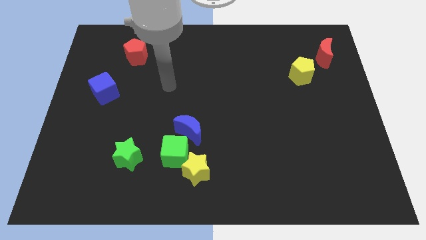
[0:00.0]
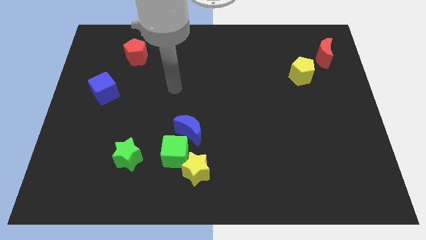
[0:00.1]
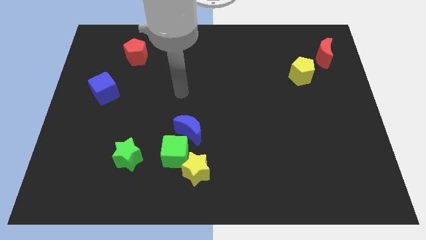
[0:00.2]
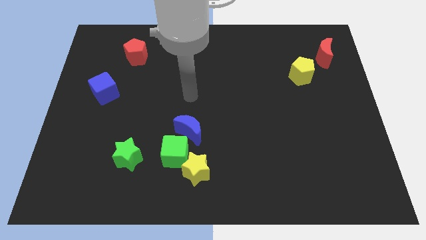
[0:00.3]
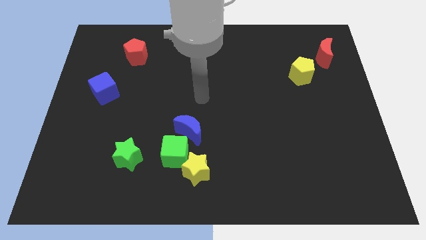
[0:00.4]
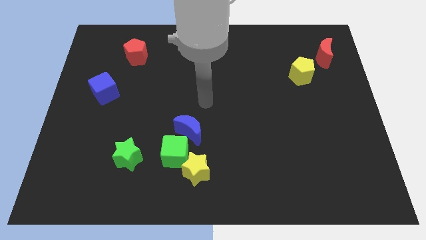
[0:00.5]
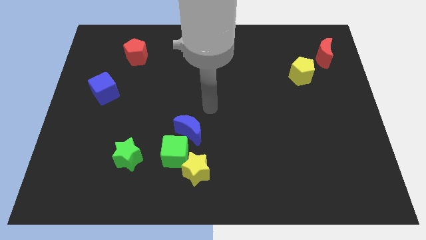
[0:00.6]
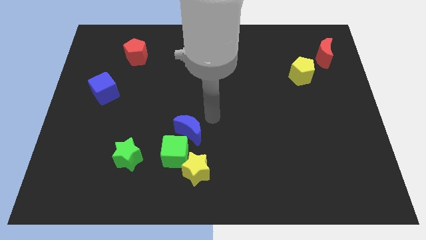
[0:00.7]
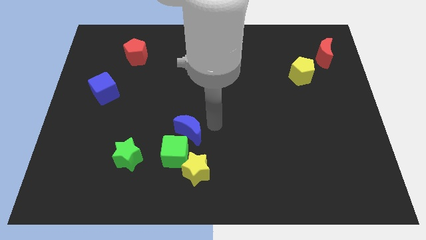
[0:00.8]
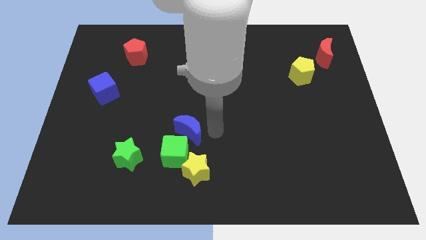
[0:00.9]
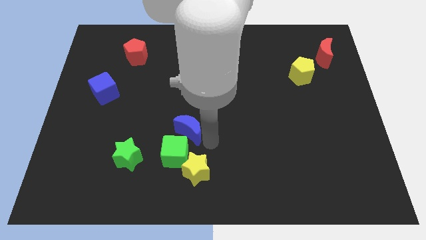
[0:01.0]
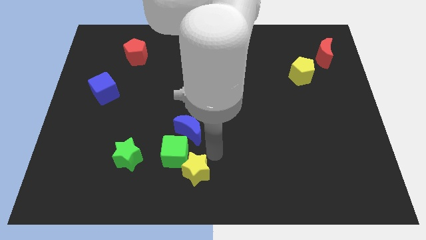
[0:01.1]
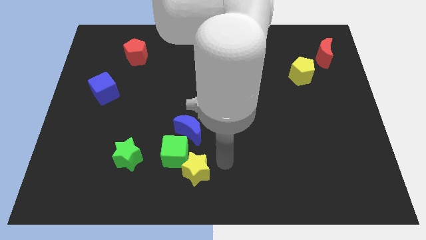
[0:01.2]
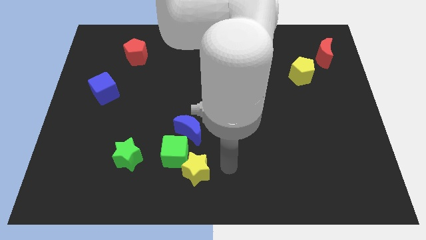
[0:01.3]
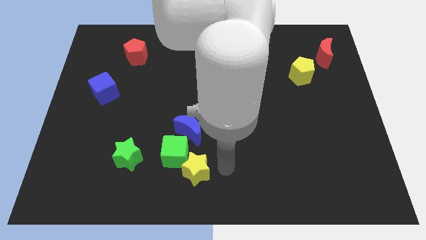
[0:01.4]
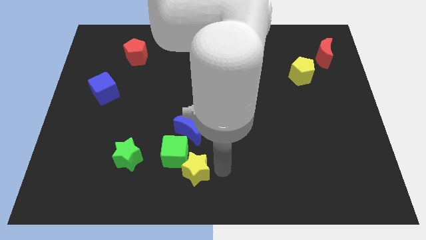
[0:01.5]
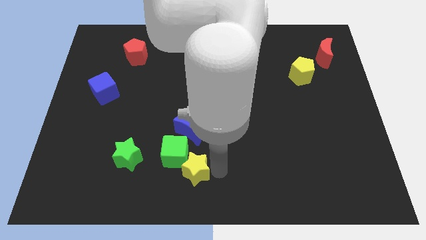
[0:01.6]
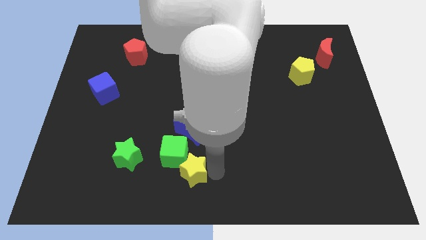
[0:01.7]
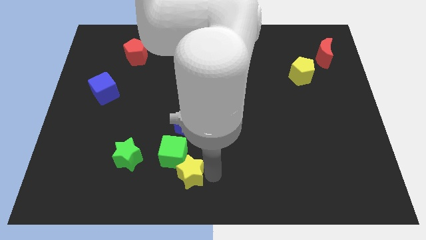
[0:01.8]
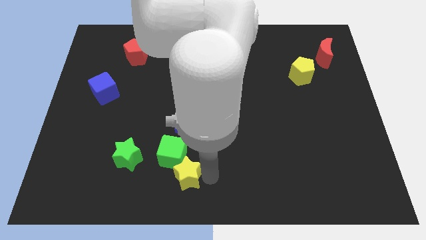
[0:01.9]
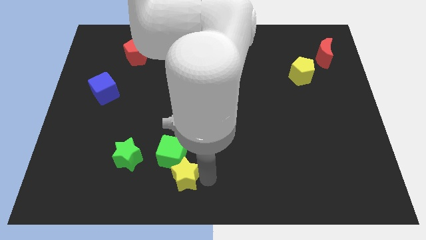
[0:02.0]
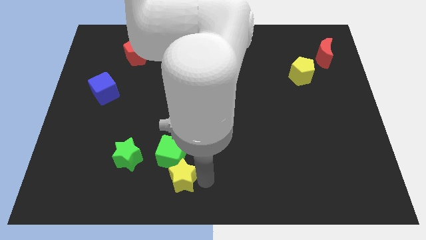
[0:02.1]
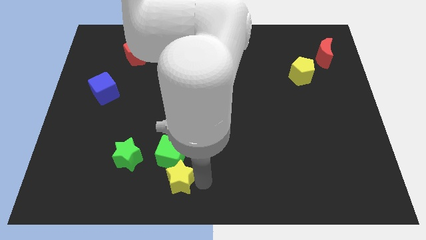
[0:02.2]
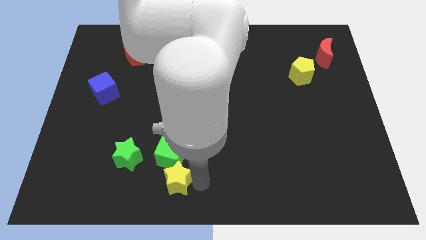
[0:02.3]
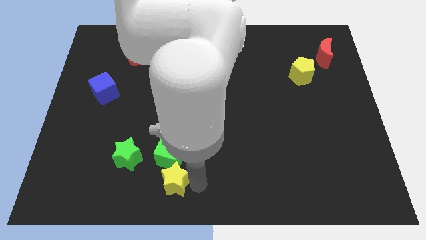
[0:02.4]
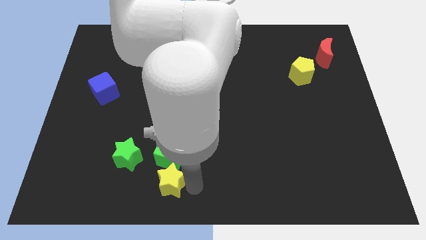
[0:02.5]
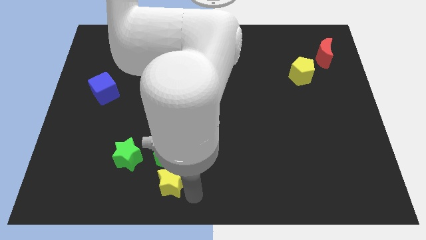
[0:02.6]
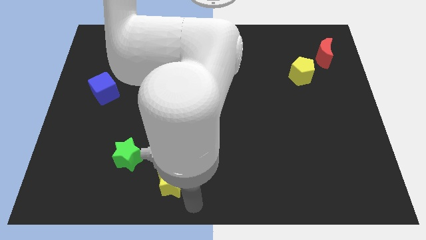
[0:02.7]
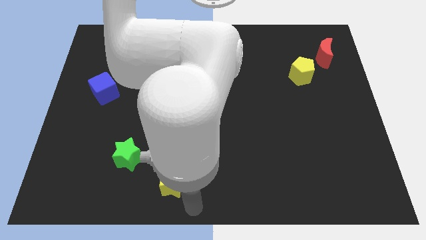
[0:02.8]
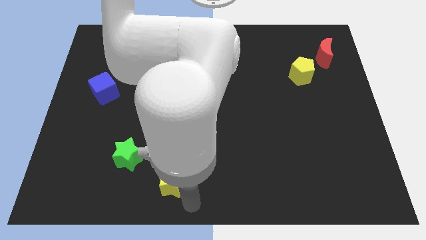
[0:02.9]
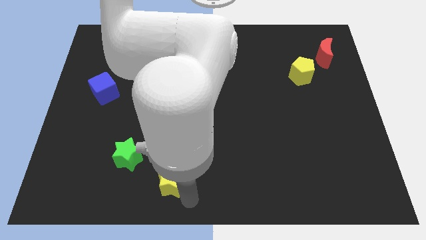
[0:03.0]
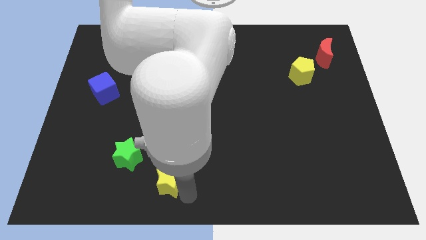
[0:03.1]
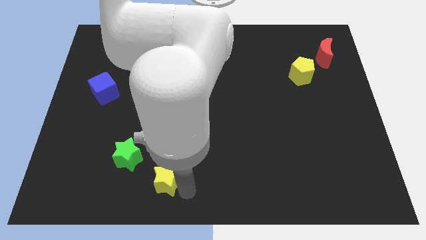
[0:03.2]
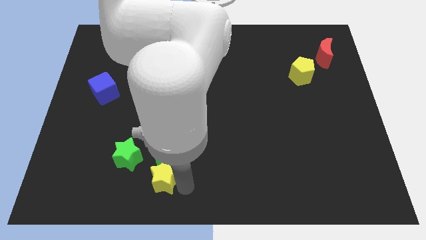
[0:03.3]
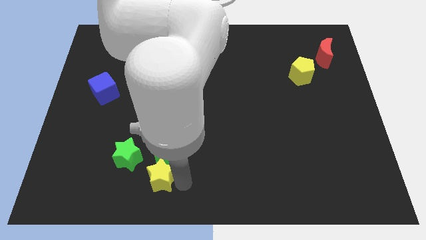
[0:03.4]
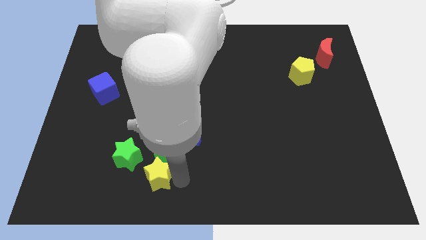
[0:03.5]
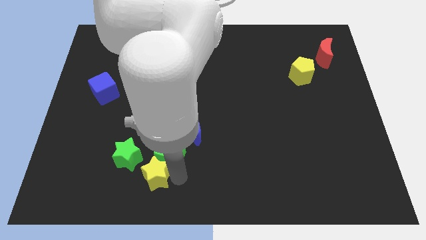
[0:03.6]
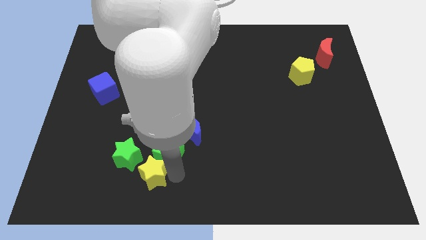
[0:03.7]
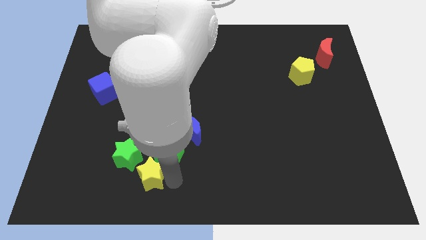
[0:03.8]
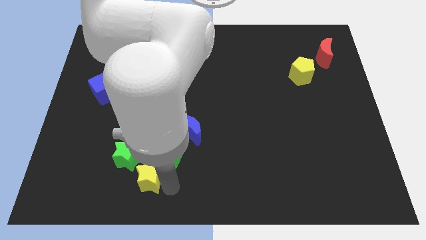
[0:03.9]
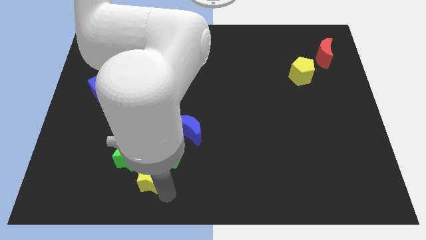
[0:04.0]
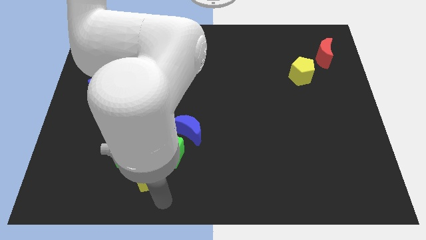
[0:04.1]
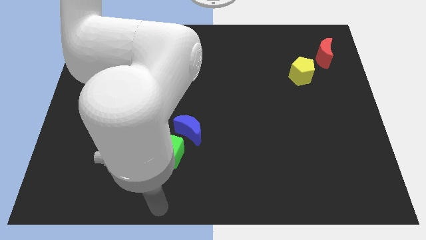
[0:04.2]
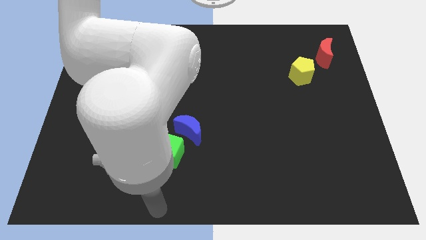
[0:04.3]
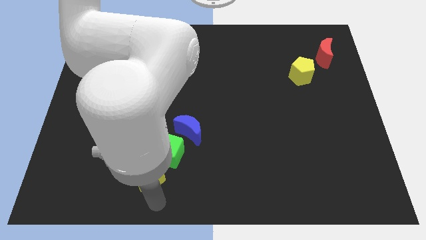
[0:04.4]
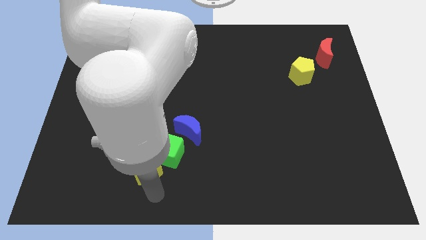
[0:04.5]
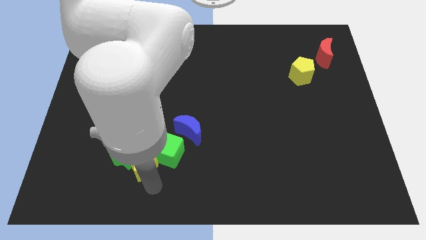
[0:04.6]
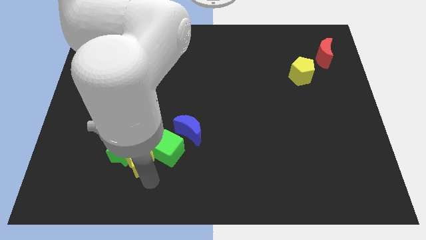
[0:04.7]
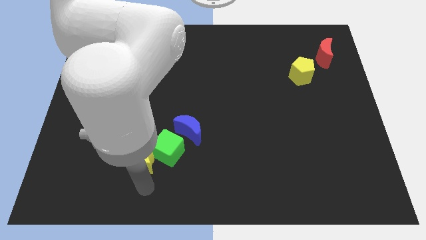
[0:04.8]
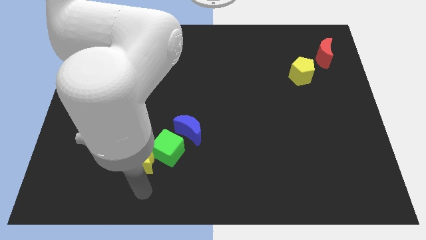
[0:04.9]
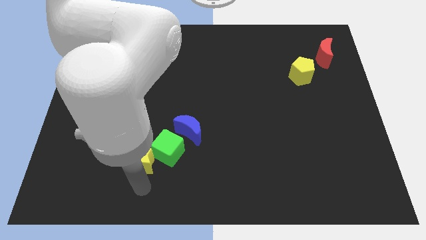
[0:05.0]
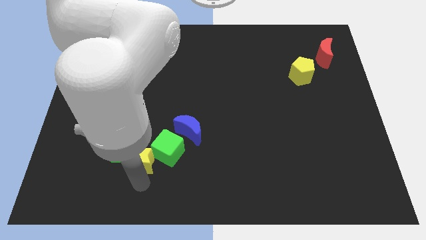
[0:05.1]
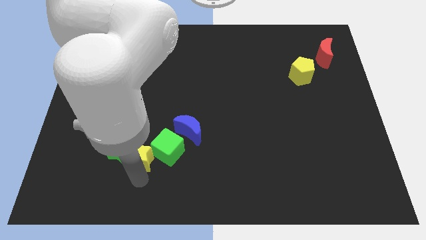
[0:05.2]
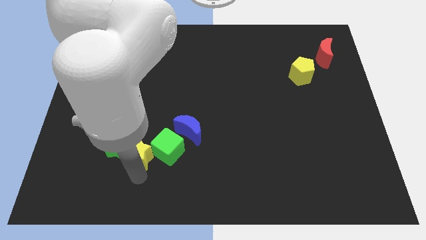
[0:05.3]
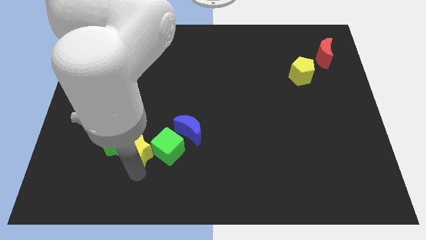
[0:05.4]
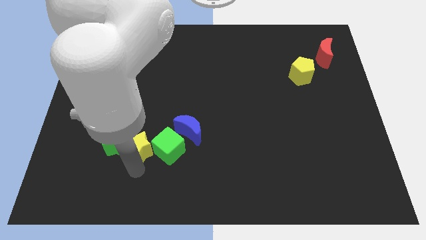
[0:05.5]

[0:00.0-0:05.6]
push the yellow star to the left side of the blue moon

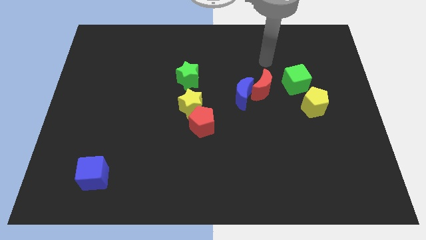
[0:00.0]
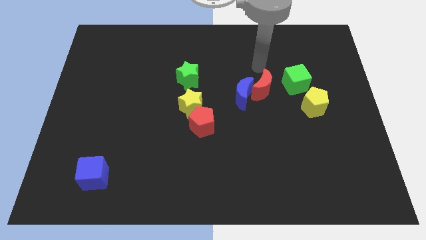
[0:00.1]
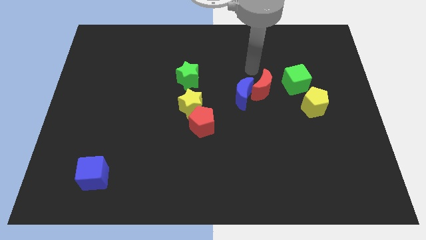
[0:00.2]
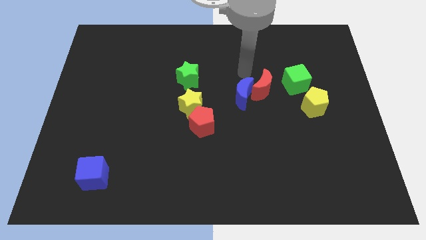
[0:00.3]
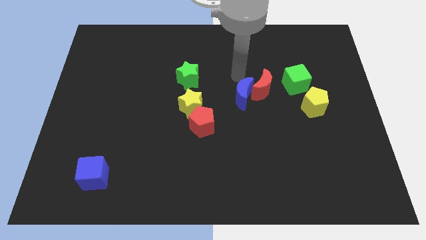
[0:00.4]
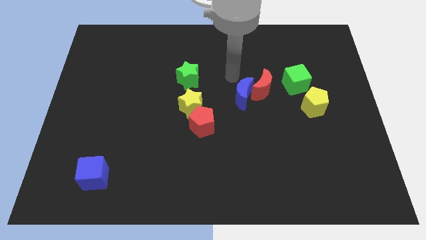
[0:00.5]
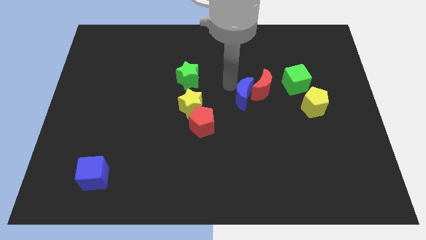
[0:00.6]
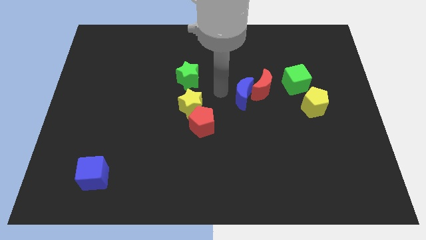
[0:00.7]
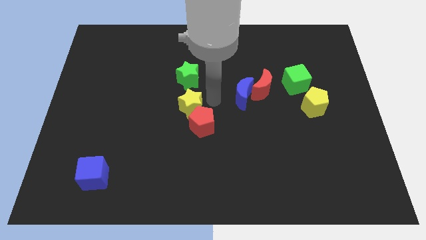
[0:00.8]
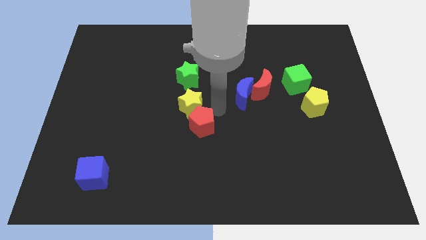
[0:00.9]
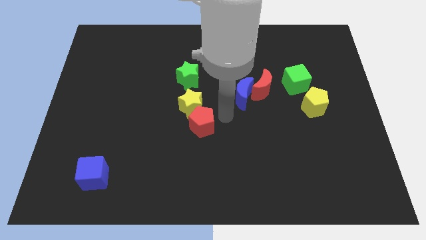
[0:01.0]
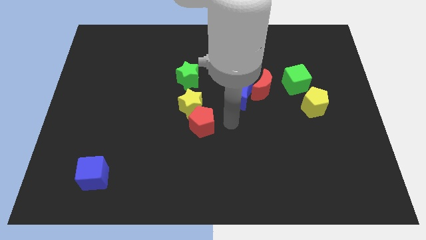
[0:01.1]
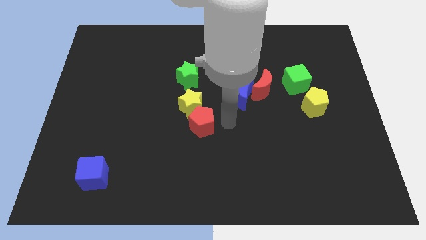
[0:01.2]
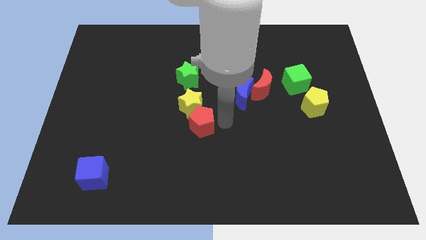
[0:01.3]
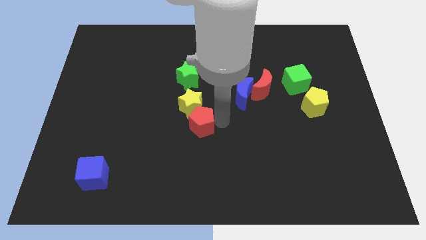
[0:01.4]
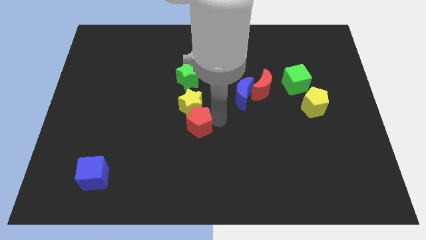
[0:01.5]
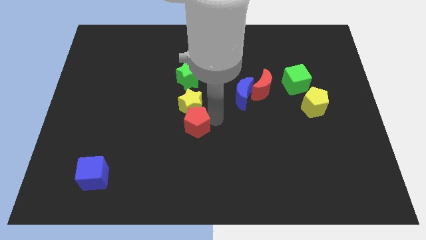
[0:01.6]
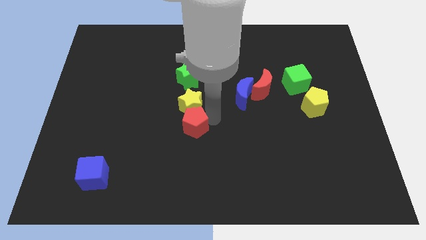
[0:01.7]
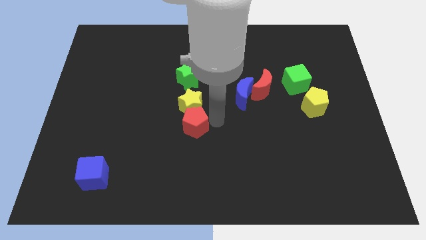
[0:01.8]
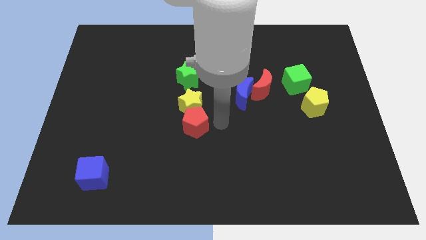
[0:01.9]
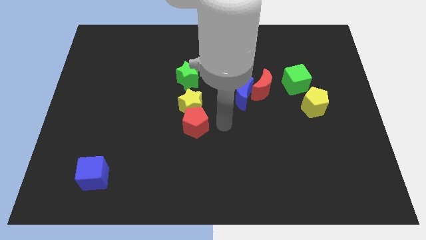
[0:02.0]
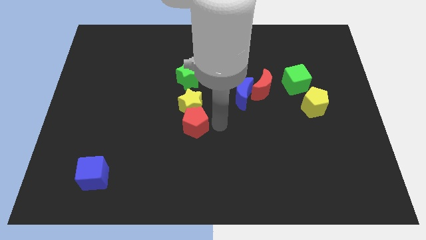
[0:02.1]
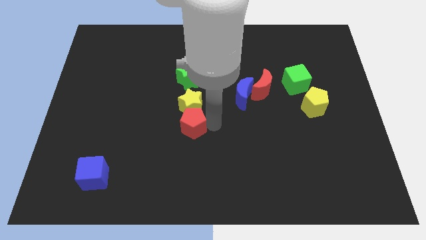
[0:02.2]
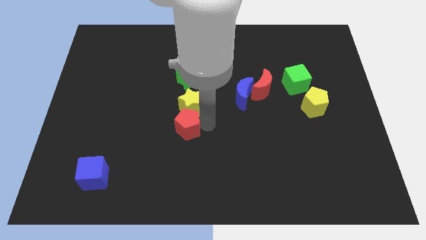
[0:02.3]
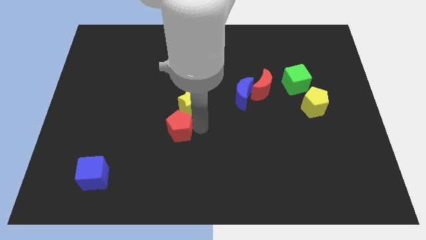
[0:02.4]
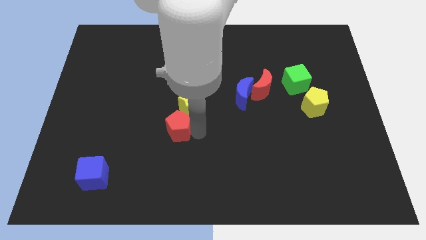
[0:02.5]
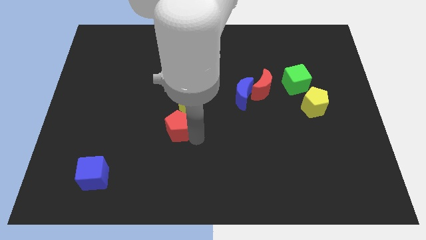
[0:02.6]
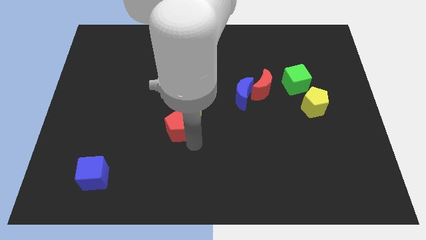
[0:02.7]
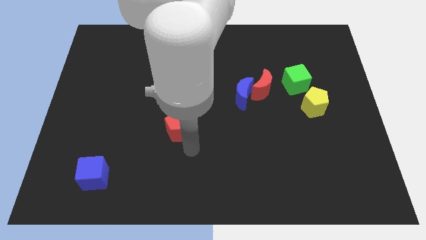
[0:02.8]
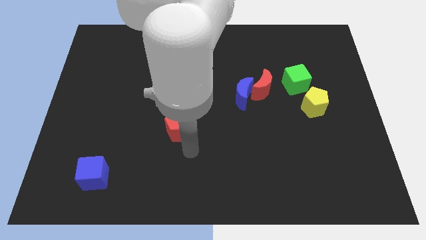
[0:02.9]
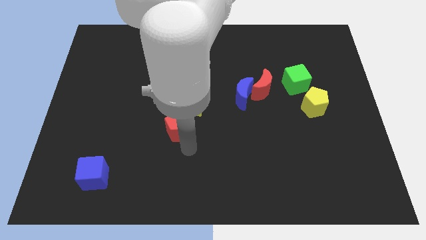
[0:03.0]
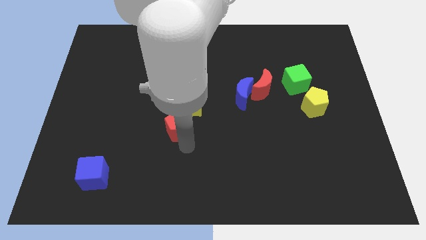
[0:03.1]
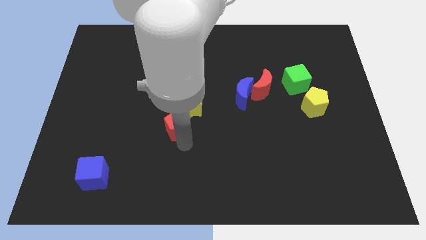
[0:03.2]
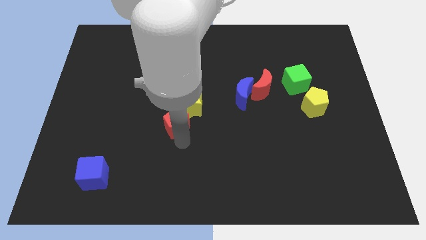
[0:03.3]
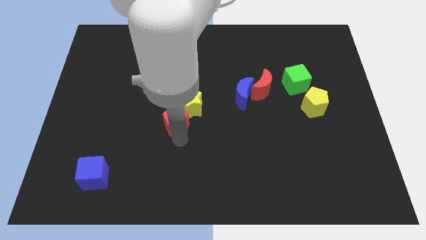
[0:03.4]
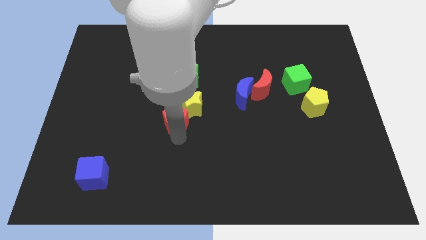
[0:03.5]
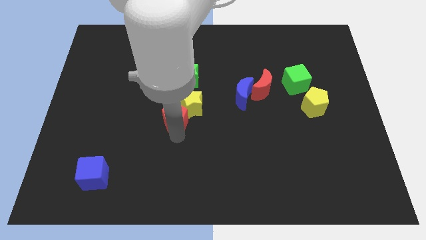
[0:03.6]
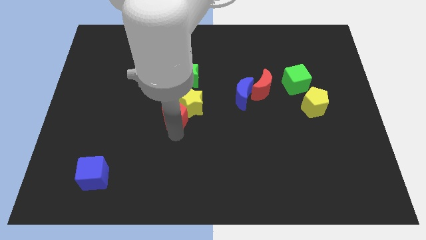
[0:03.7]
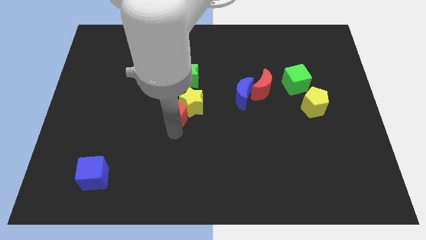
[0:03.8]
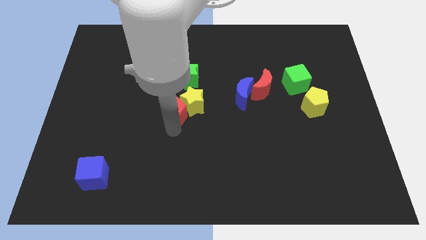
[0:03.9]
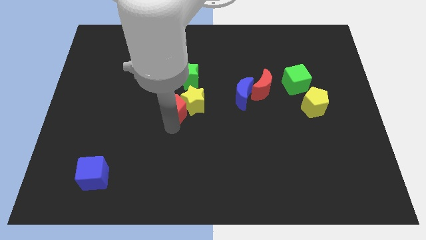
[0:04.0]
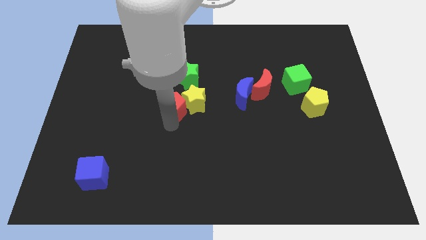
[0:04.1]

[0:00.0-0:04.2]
move the red pentagon to the bottom left of the green star
